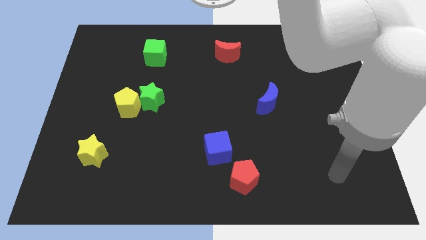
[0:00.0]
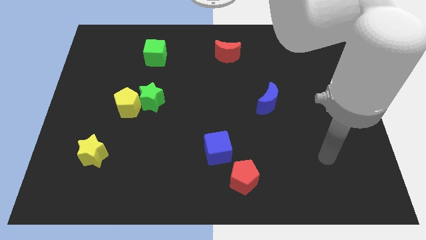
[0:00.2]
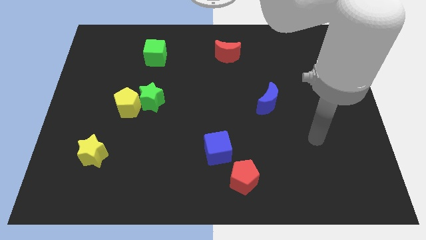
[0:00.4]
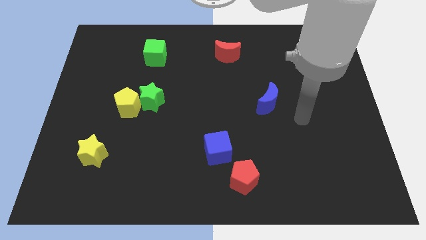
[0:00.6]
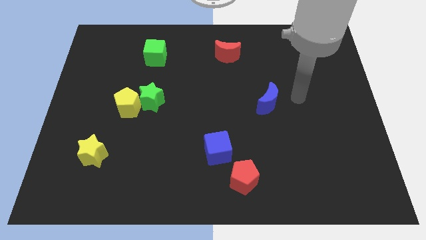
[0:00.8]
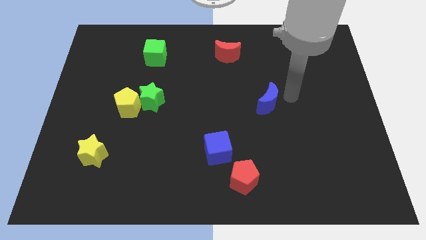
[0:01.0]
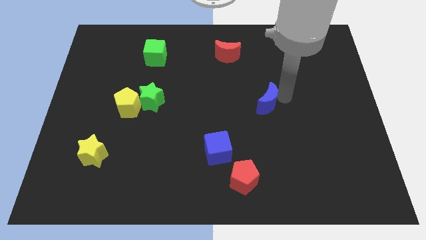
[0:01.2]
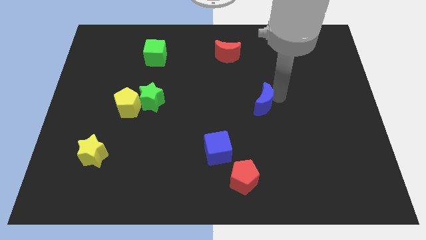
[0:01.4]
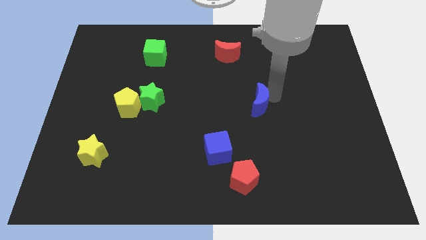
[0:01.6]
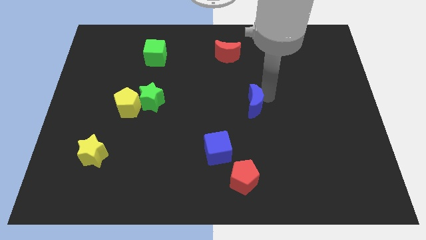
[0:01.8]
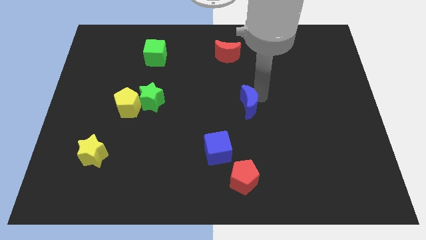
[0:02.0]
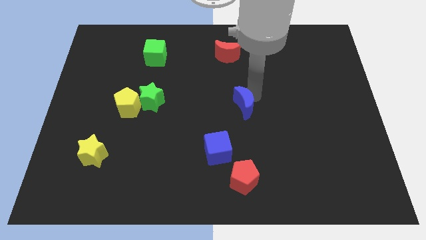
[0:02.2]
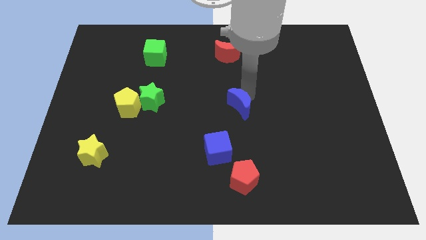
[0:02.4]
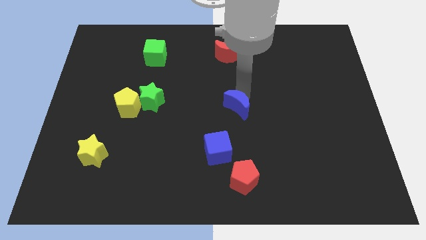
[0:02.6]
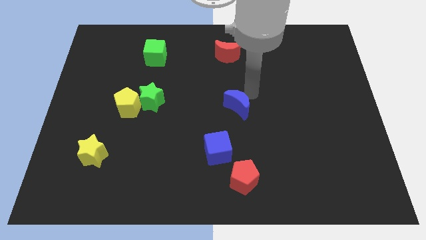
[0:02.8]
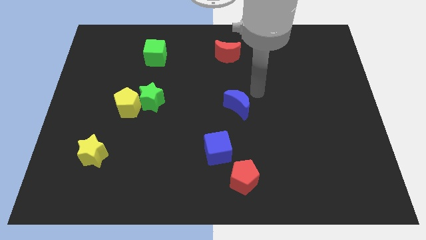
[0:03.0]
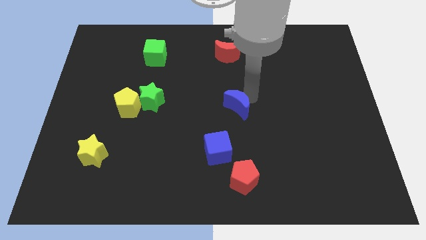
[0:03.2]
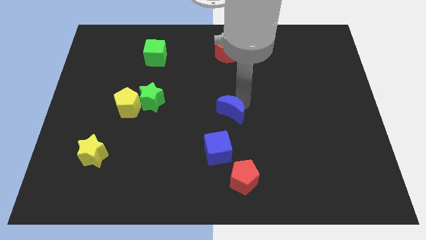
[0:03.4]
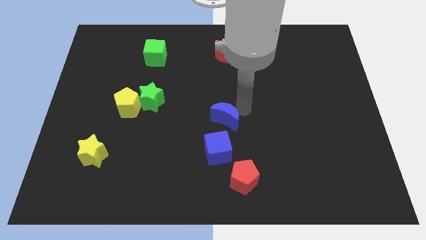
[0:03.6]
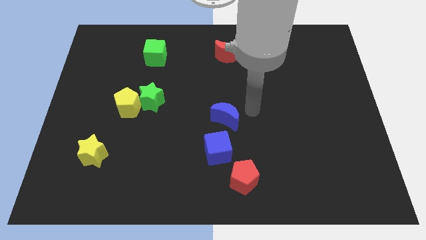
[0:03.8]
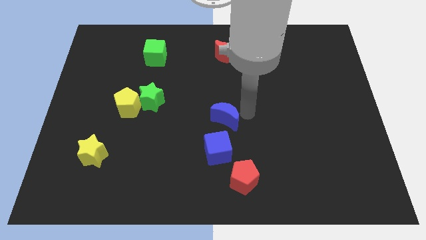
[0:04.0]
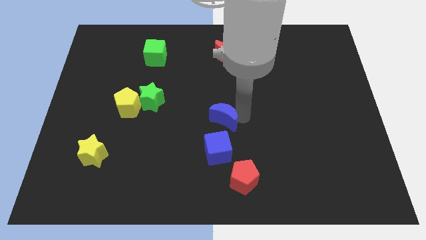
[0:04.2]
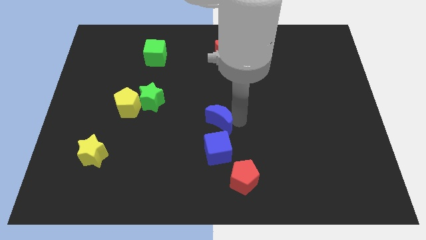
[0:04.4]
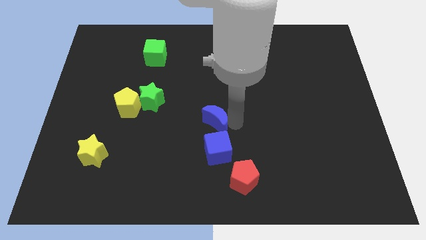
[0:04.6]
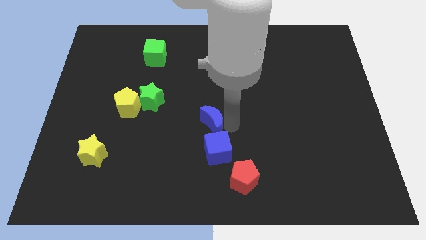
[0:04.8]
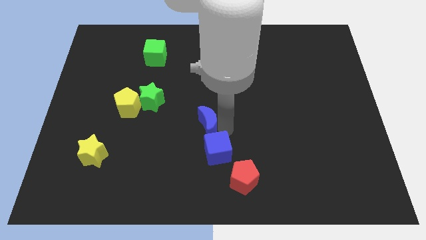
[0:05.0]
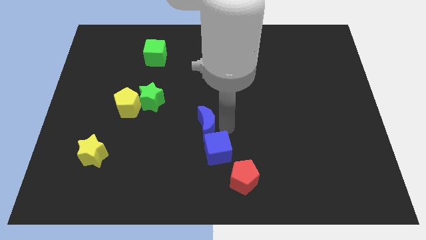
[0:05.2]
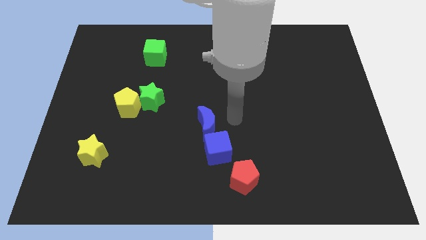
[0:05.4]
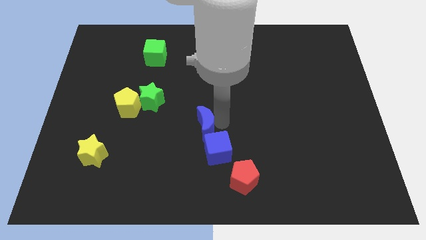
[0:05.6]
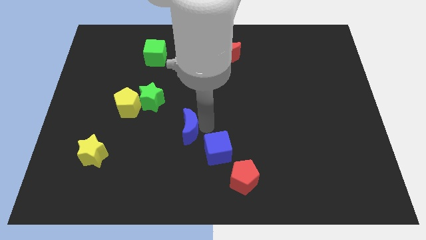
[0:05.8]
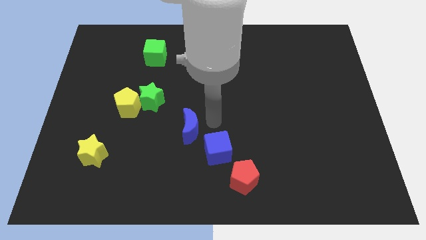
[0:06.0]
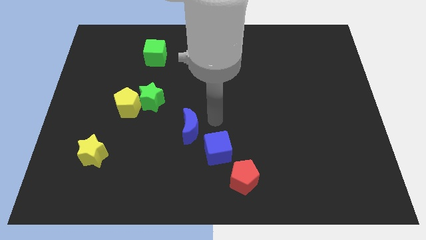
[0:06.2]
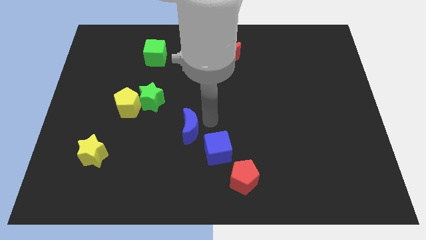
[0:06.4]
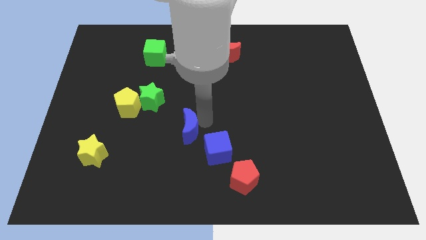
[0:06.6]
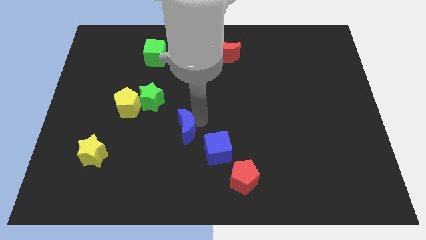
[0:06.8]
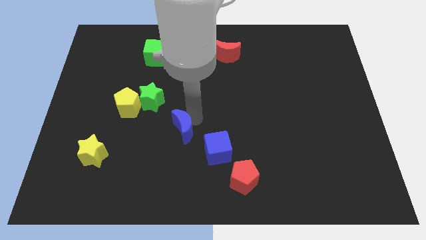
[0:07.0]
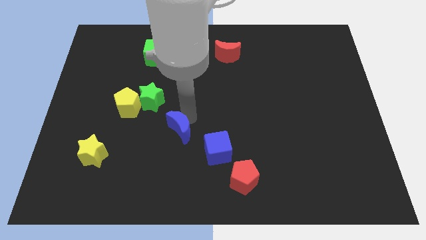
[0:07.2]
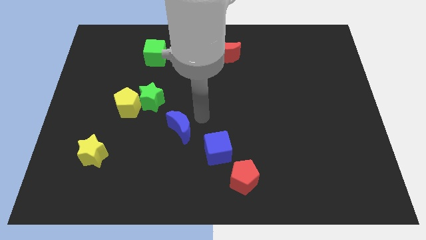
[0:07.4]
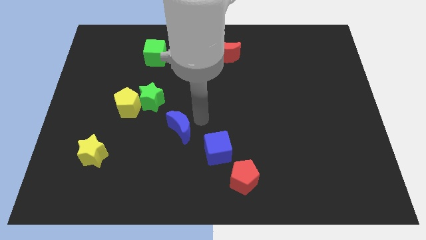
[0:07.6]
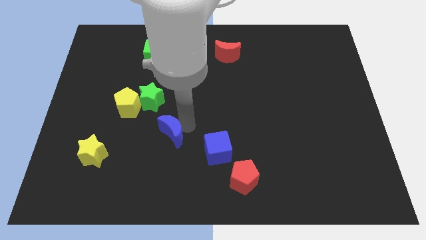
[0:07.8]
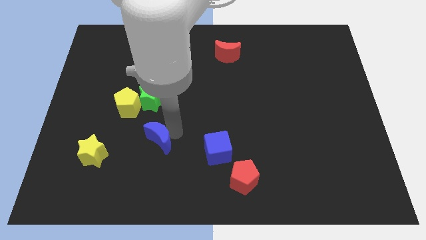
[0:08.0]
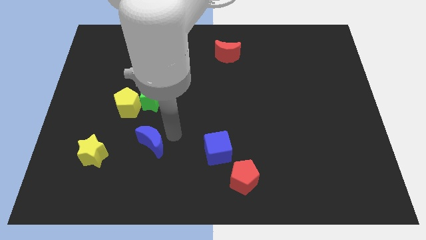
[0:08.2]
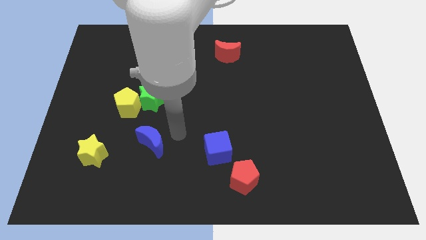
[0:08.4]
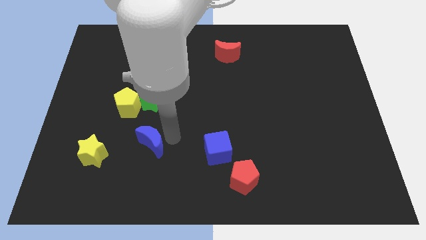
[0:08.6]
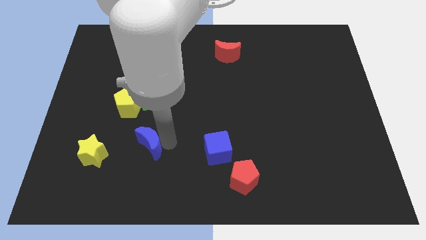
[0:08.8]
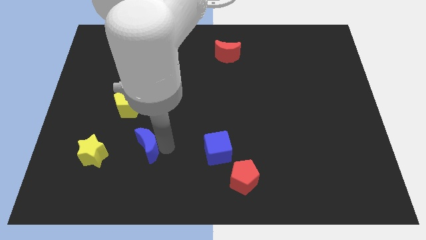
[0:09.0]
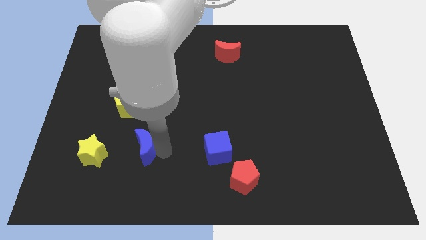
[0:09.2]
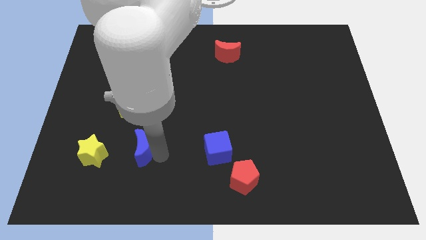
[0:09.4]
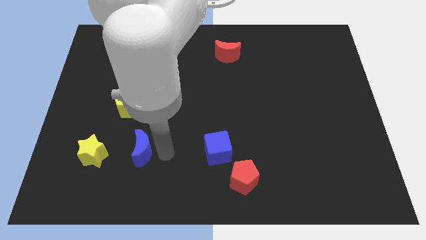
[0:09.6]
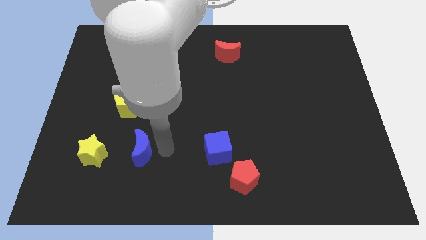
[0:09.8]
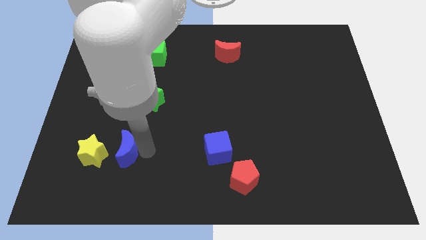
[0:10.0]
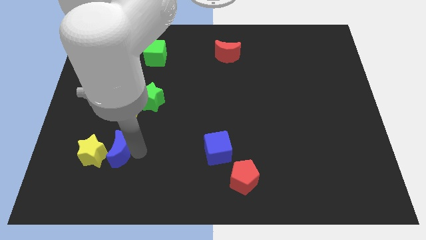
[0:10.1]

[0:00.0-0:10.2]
push the blue moon next to the yellow star

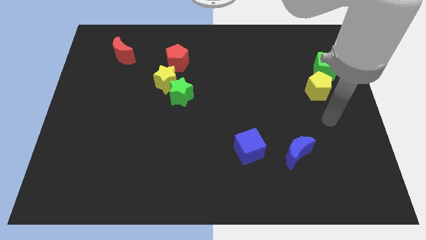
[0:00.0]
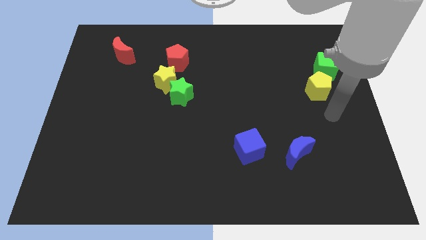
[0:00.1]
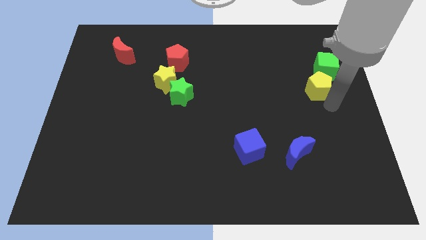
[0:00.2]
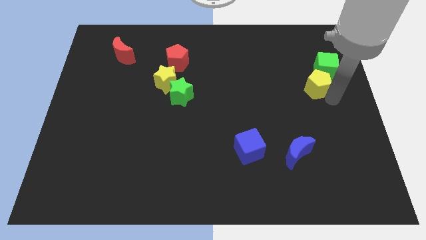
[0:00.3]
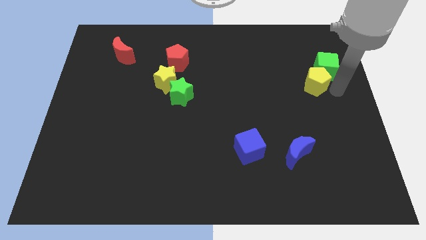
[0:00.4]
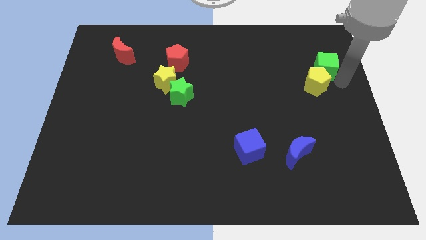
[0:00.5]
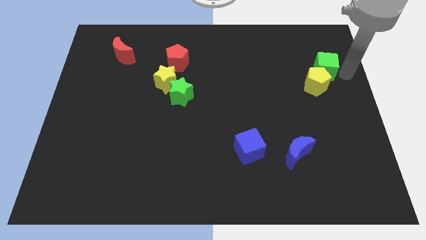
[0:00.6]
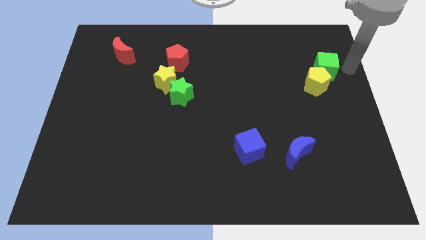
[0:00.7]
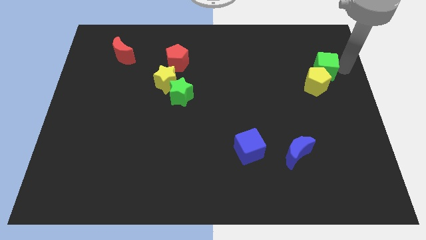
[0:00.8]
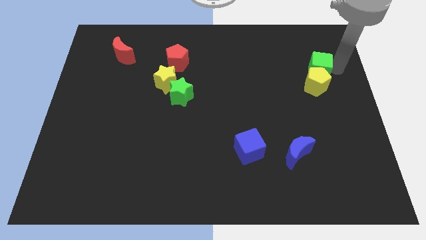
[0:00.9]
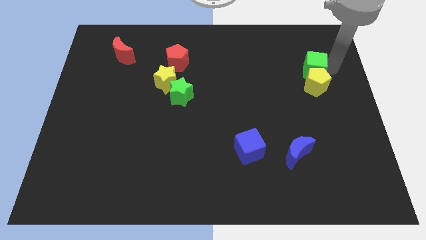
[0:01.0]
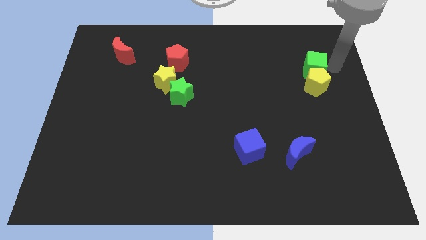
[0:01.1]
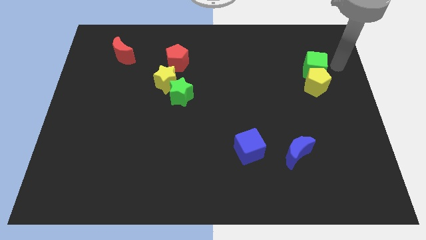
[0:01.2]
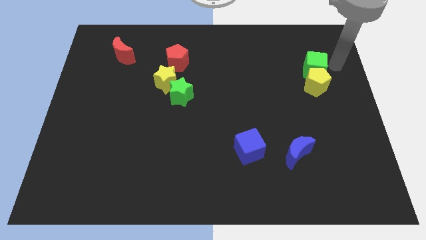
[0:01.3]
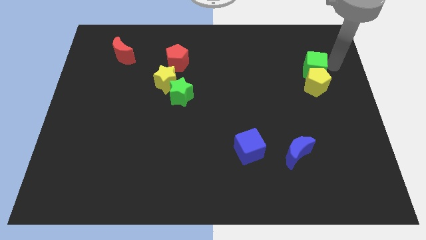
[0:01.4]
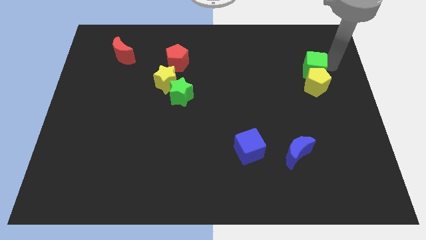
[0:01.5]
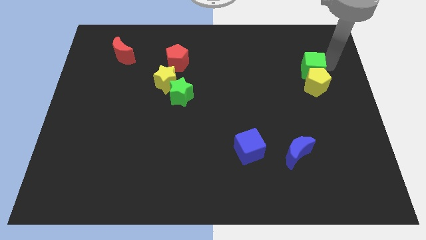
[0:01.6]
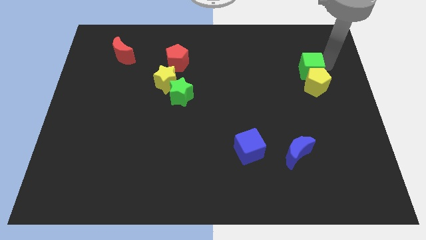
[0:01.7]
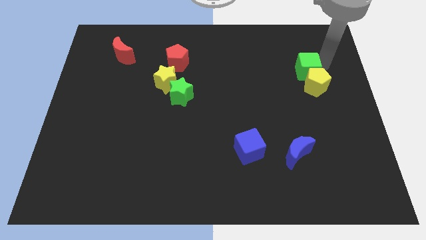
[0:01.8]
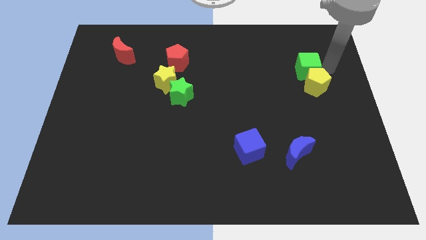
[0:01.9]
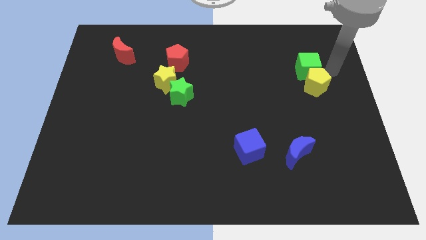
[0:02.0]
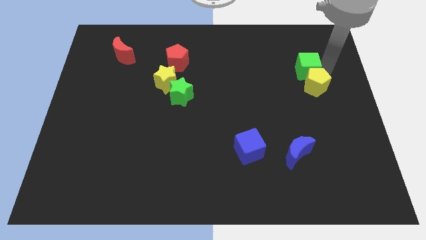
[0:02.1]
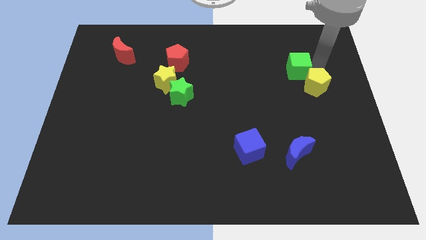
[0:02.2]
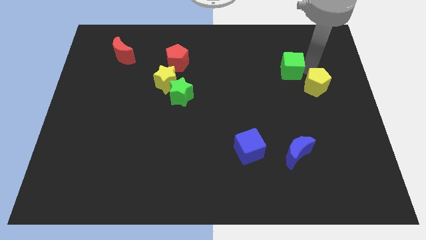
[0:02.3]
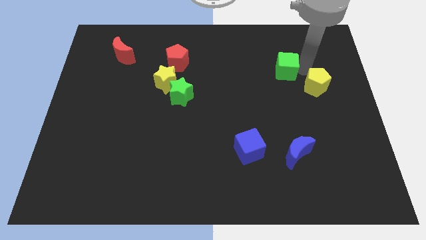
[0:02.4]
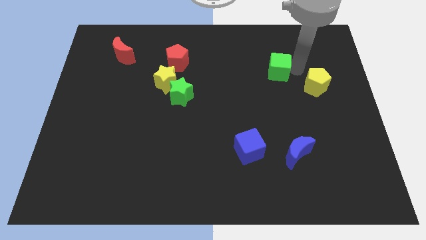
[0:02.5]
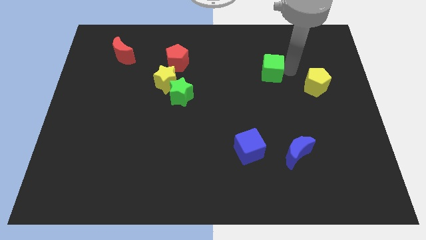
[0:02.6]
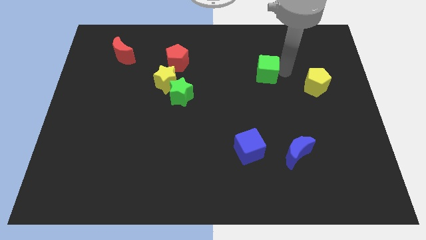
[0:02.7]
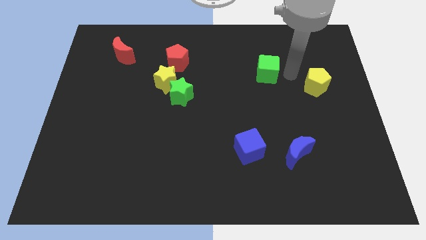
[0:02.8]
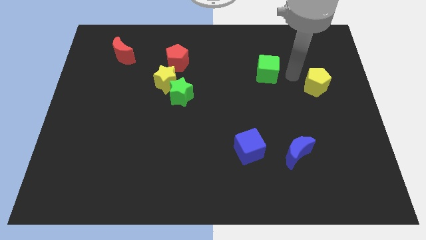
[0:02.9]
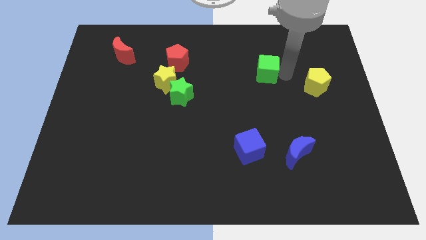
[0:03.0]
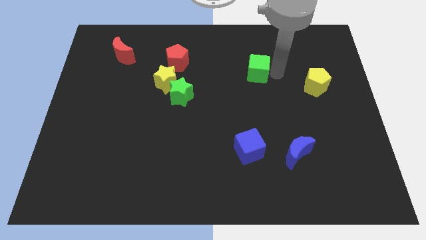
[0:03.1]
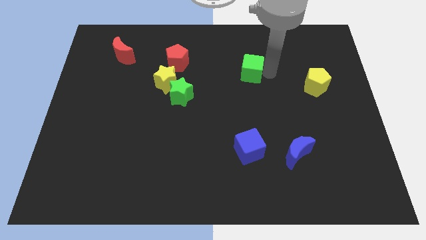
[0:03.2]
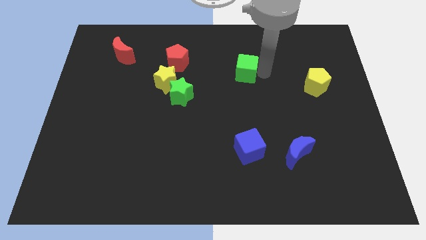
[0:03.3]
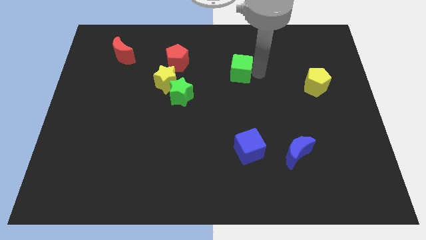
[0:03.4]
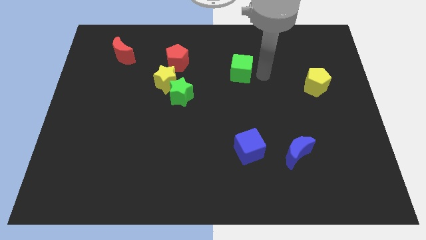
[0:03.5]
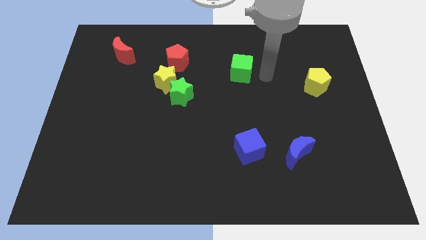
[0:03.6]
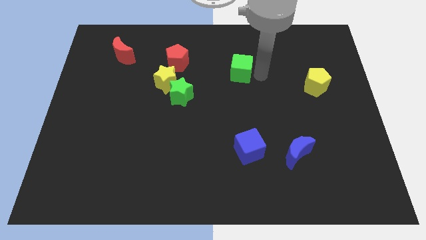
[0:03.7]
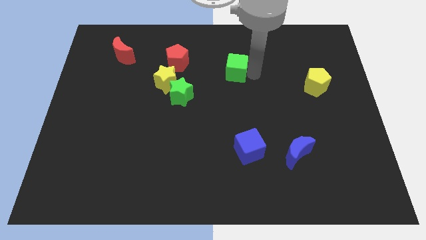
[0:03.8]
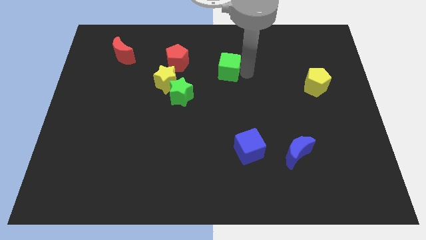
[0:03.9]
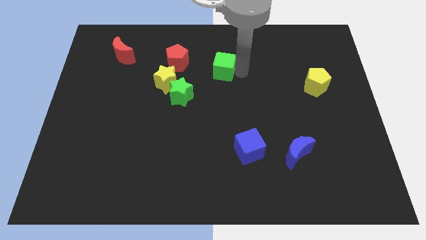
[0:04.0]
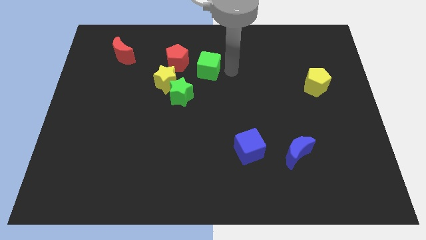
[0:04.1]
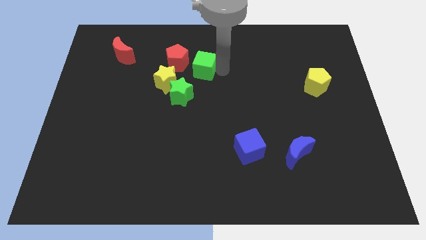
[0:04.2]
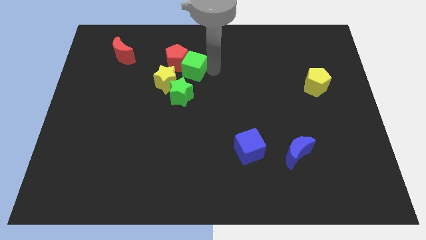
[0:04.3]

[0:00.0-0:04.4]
push the green cube towards the red pentagon
